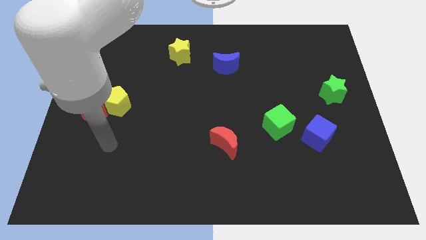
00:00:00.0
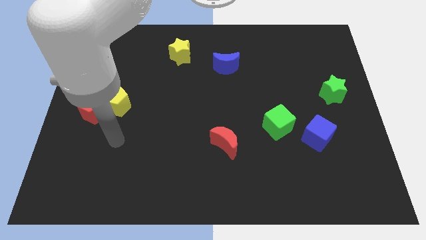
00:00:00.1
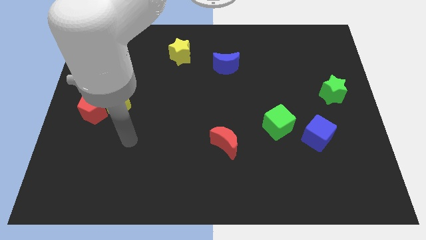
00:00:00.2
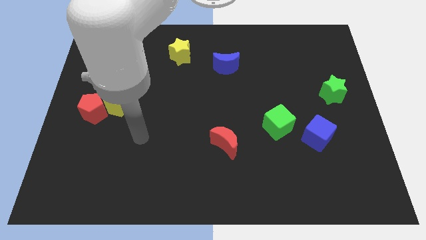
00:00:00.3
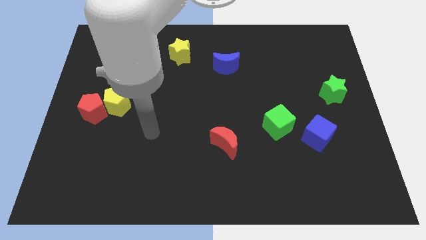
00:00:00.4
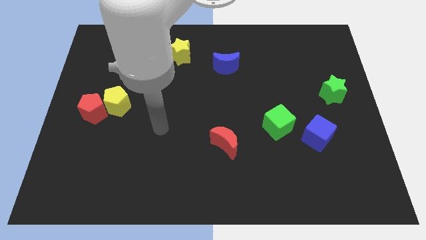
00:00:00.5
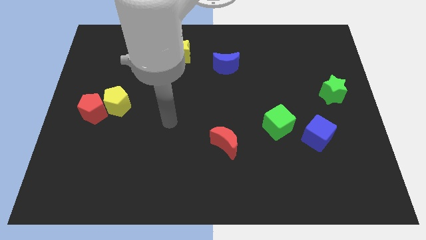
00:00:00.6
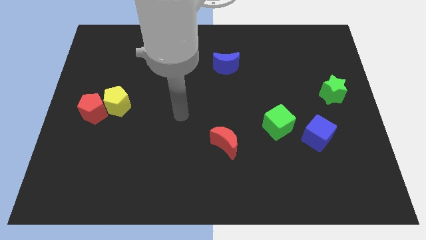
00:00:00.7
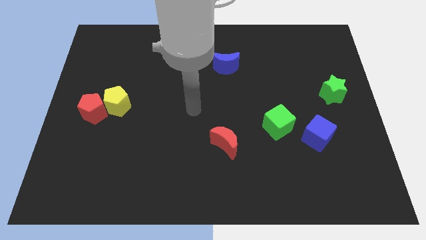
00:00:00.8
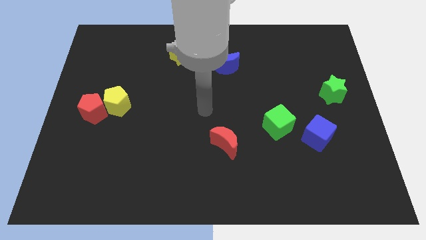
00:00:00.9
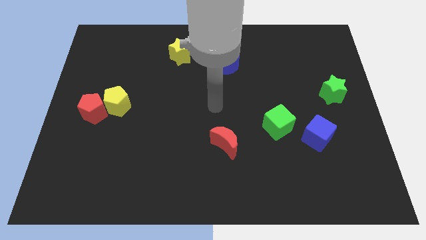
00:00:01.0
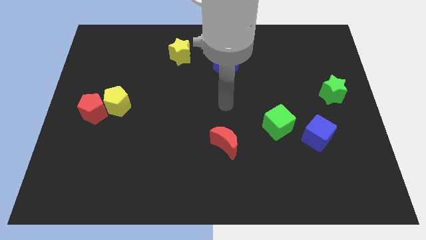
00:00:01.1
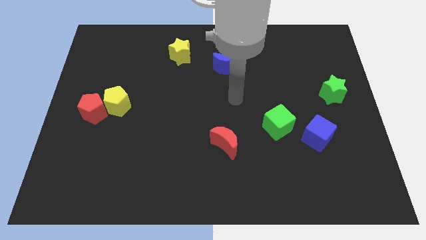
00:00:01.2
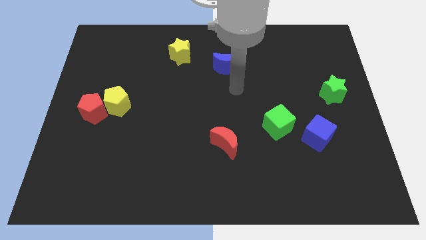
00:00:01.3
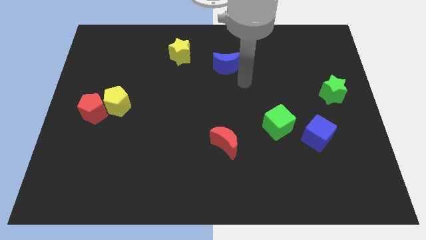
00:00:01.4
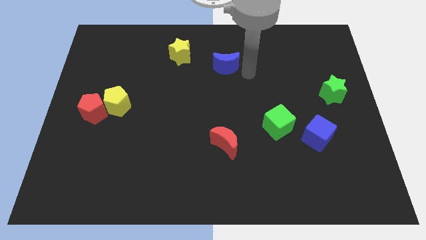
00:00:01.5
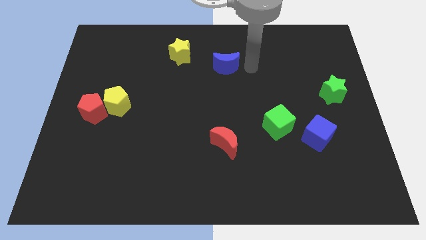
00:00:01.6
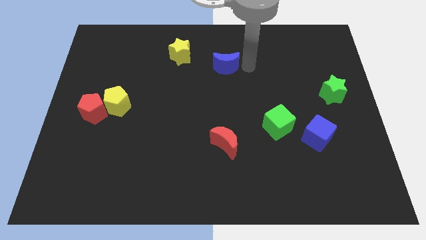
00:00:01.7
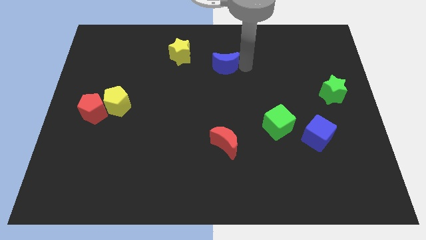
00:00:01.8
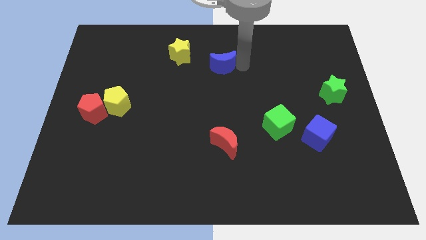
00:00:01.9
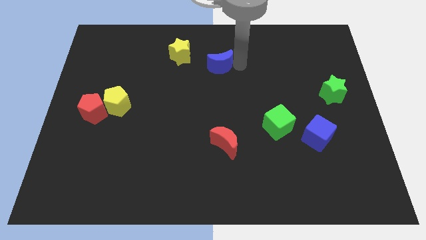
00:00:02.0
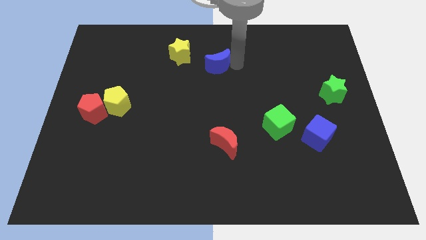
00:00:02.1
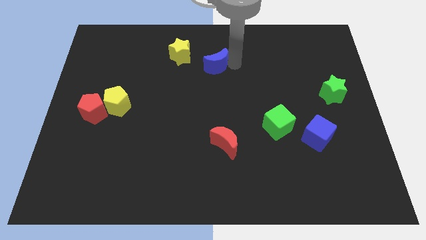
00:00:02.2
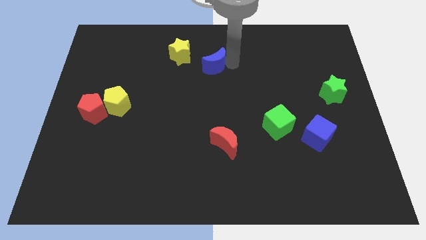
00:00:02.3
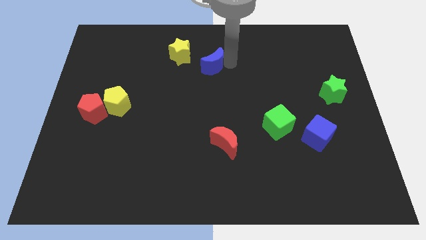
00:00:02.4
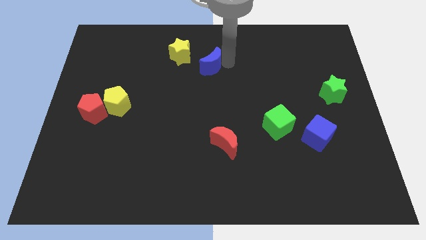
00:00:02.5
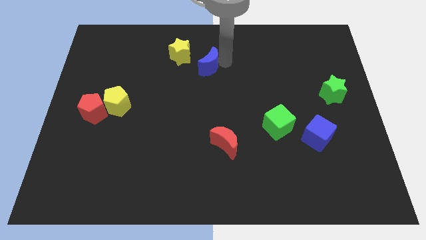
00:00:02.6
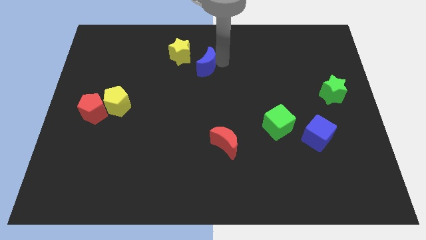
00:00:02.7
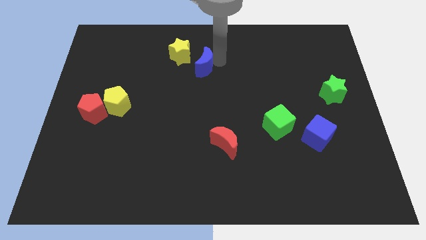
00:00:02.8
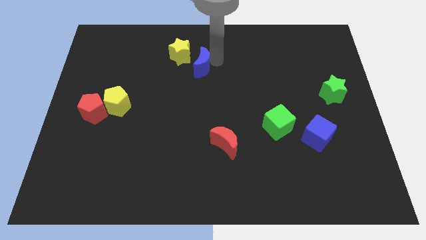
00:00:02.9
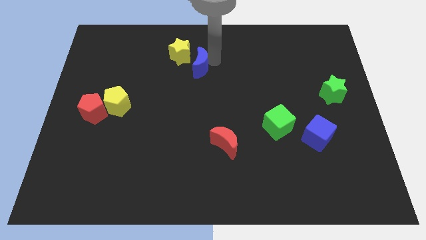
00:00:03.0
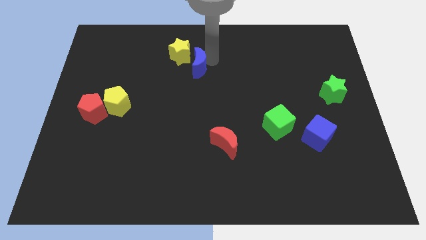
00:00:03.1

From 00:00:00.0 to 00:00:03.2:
move the blue moon slightly left

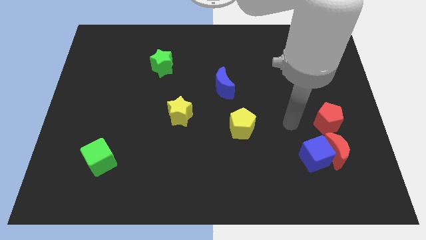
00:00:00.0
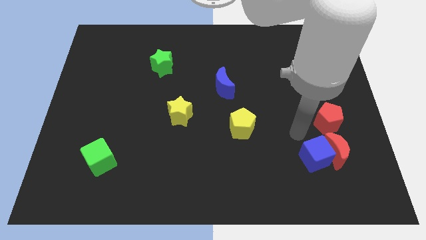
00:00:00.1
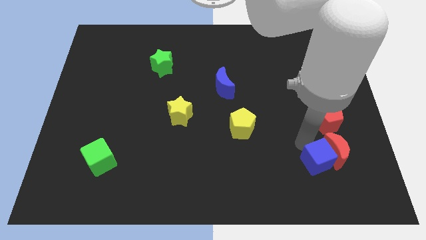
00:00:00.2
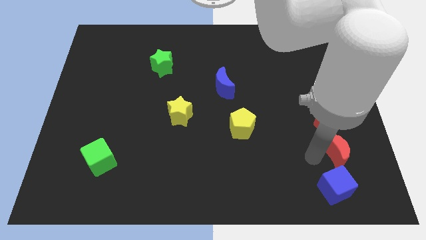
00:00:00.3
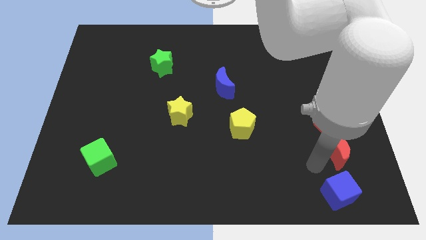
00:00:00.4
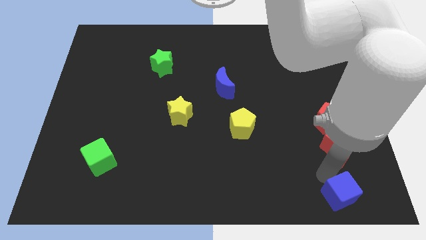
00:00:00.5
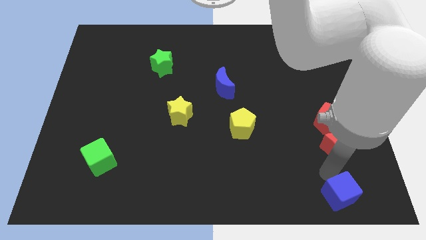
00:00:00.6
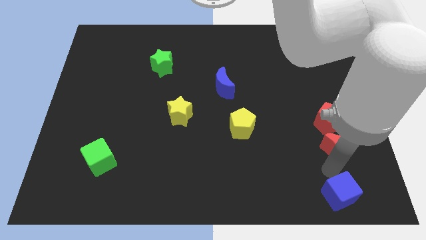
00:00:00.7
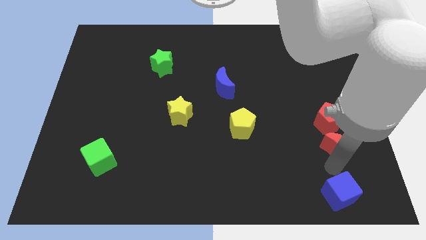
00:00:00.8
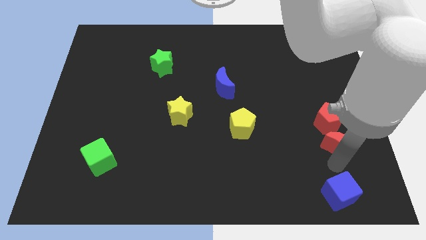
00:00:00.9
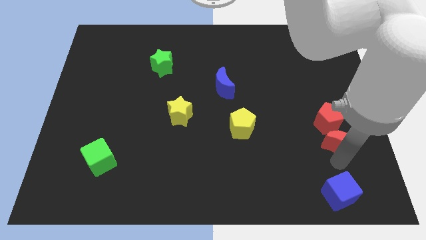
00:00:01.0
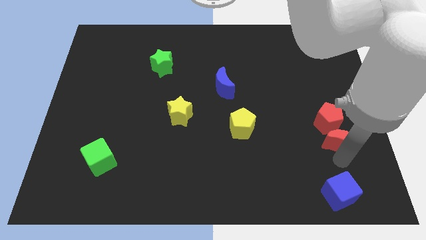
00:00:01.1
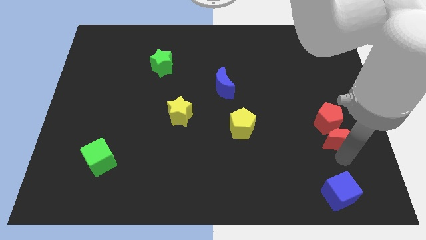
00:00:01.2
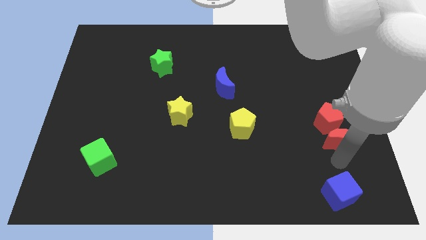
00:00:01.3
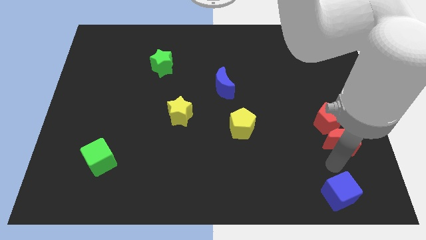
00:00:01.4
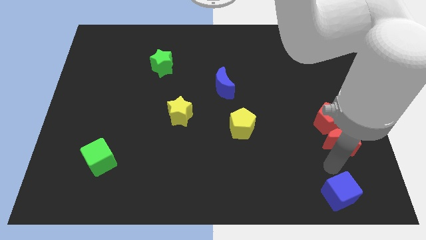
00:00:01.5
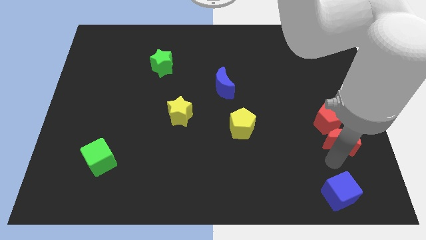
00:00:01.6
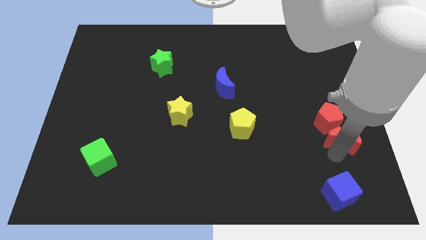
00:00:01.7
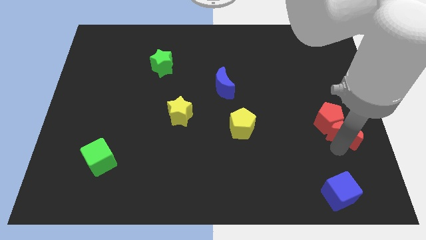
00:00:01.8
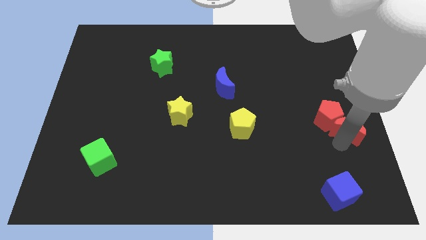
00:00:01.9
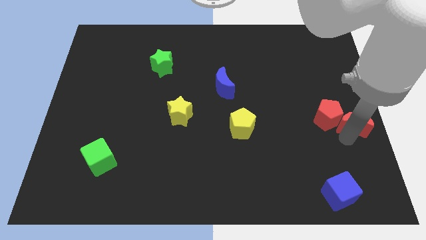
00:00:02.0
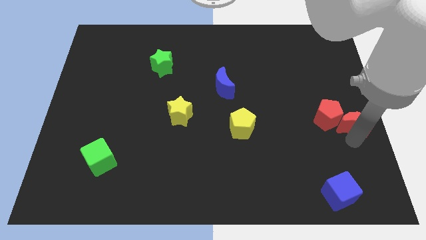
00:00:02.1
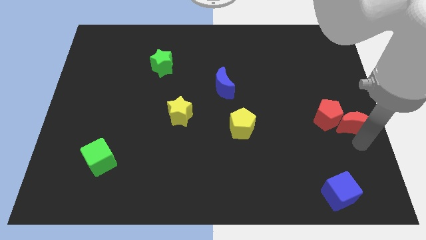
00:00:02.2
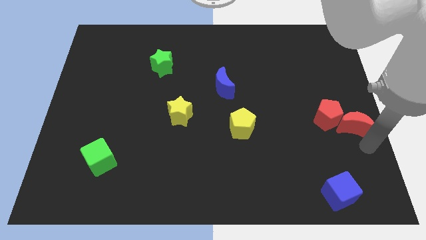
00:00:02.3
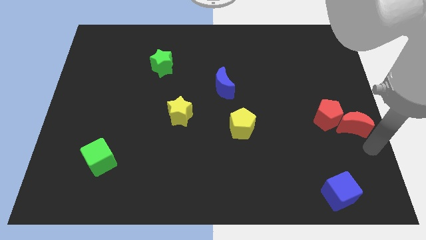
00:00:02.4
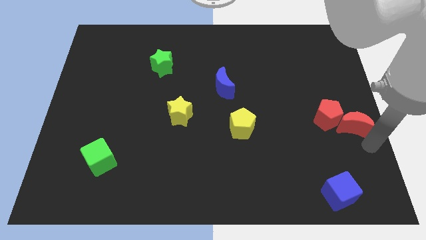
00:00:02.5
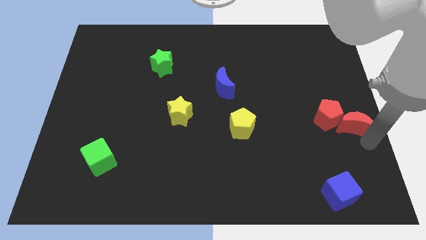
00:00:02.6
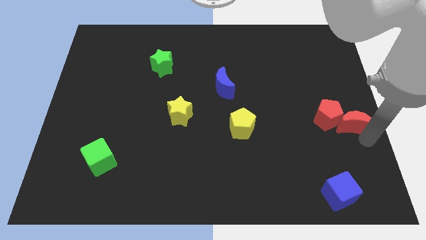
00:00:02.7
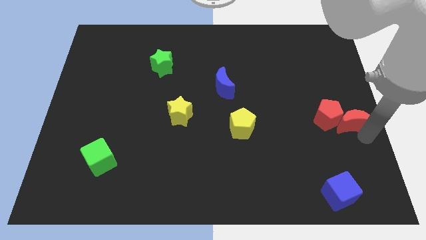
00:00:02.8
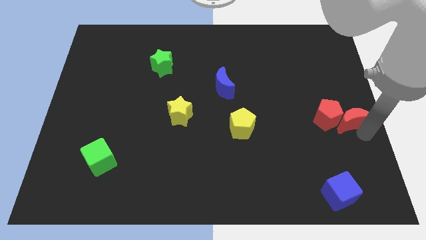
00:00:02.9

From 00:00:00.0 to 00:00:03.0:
slightly push the red moon upwards

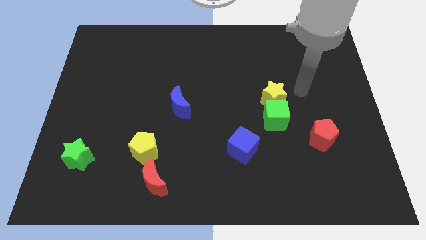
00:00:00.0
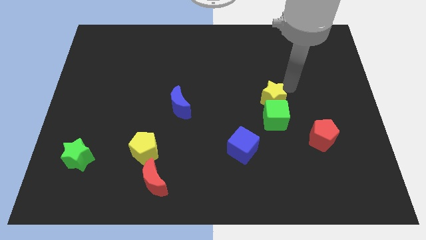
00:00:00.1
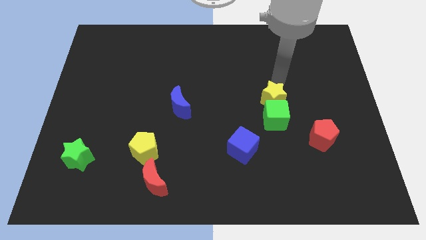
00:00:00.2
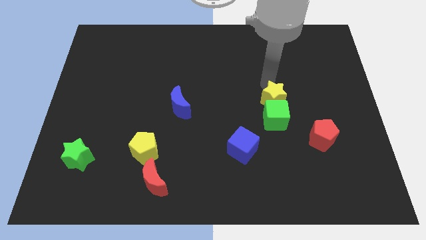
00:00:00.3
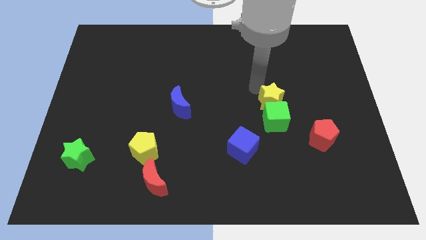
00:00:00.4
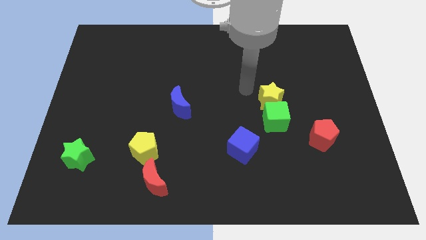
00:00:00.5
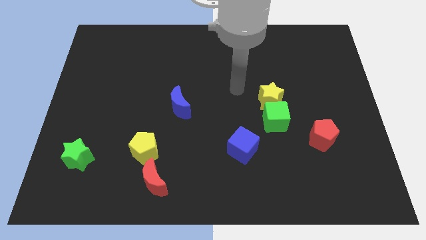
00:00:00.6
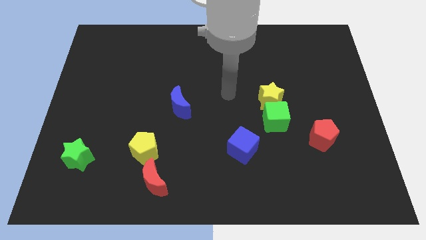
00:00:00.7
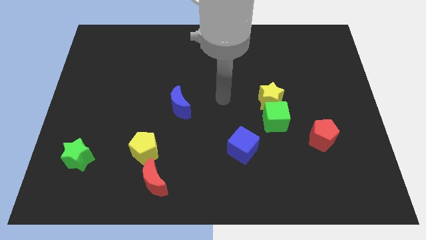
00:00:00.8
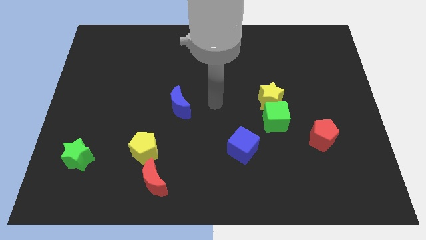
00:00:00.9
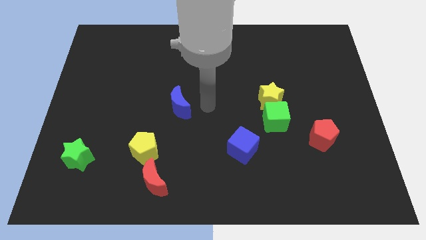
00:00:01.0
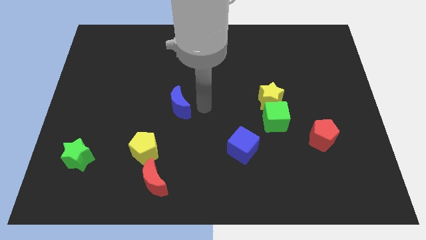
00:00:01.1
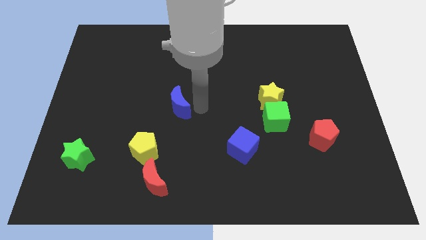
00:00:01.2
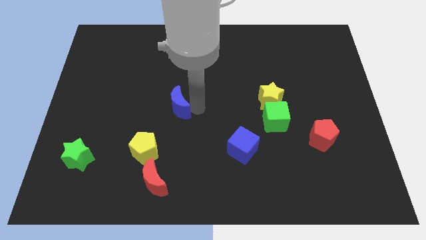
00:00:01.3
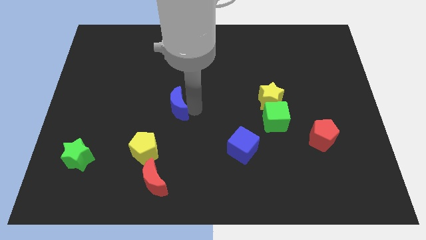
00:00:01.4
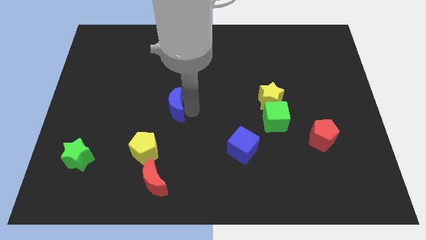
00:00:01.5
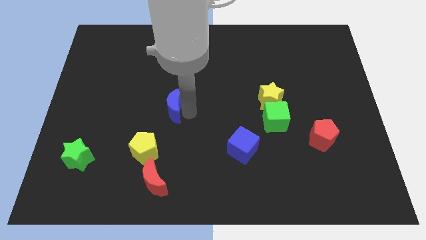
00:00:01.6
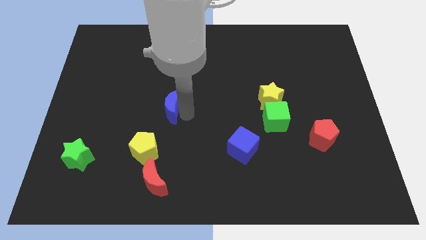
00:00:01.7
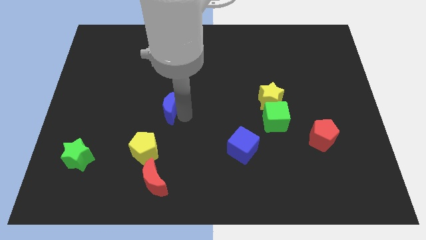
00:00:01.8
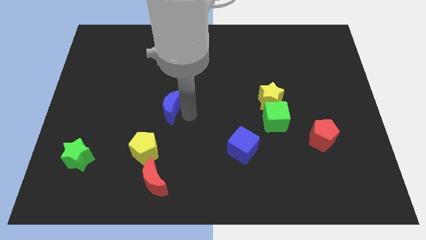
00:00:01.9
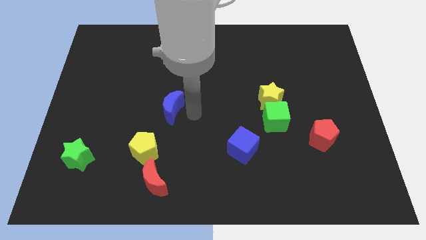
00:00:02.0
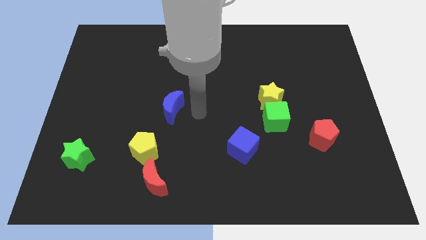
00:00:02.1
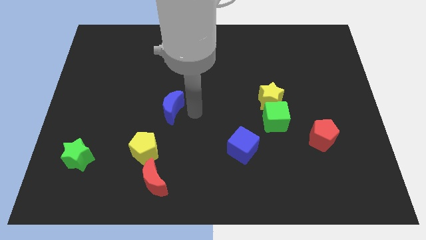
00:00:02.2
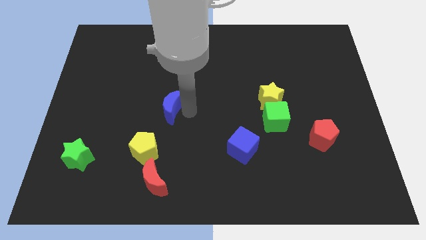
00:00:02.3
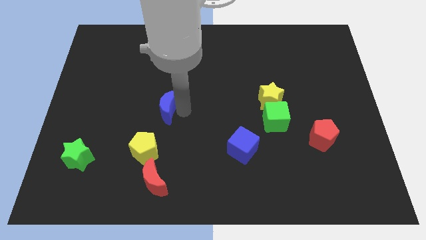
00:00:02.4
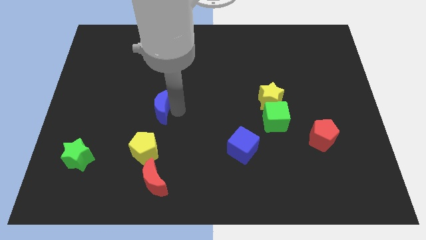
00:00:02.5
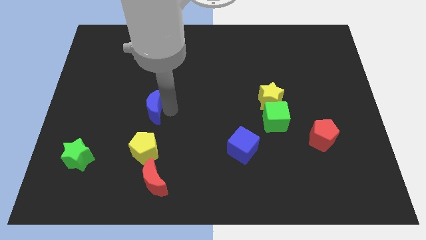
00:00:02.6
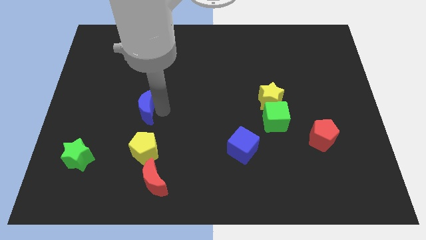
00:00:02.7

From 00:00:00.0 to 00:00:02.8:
move the blue moon slightly to the left
